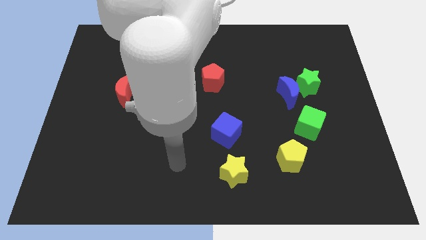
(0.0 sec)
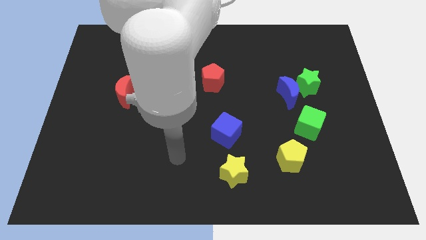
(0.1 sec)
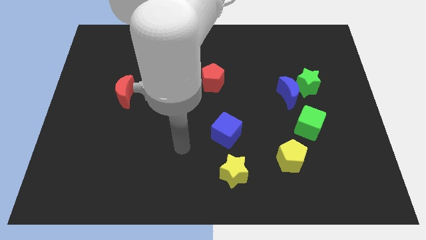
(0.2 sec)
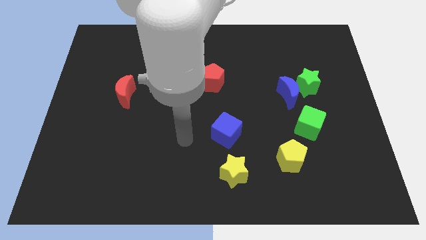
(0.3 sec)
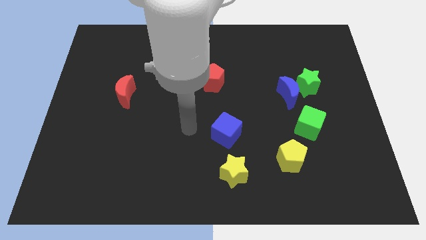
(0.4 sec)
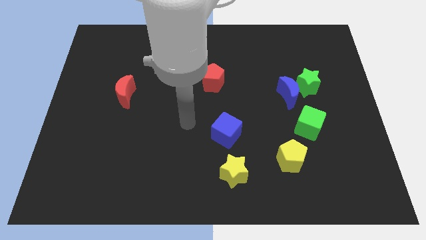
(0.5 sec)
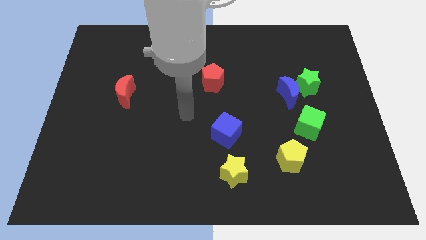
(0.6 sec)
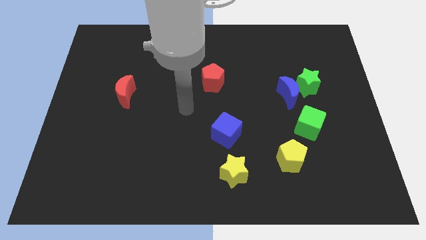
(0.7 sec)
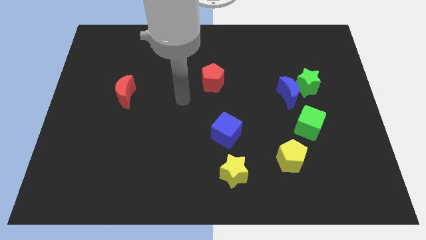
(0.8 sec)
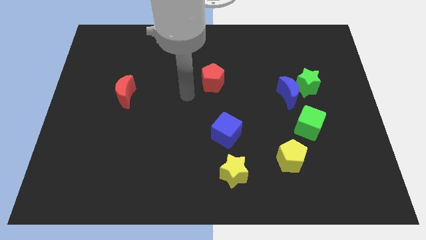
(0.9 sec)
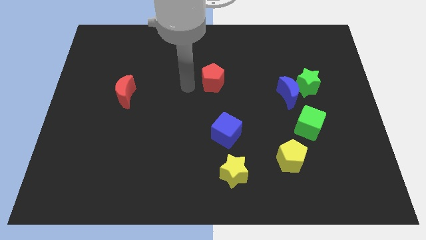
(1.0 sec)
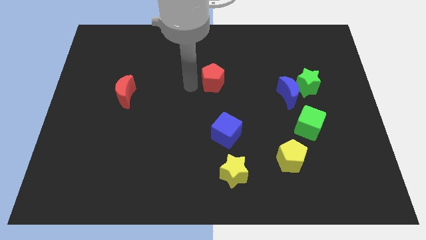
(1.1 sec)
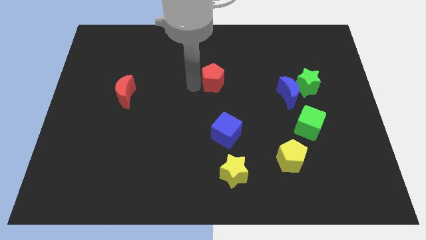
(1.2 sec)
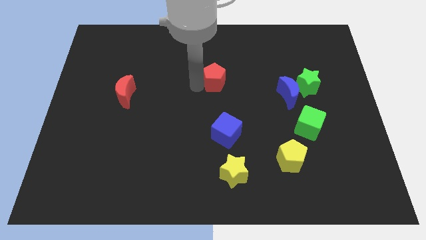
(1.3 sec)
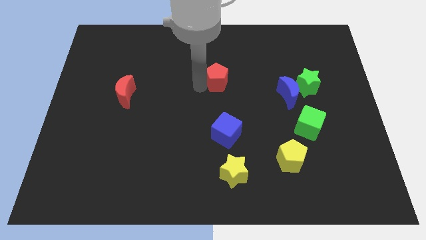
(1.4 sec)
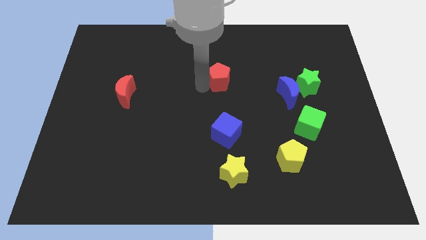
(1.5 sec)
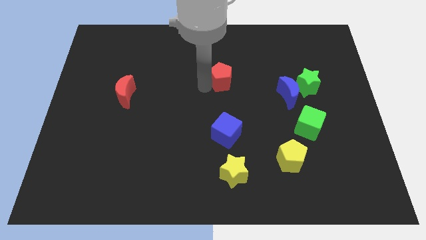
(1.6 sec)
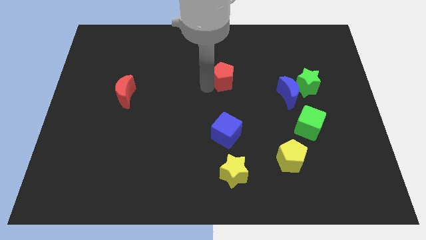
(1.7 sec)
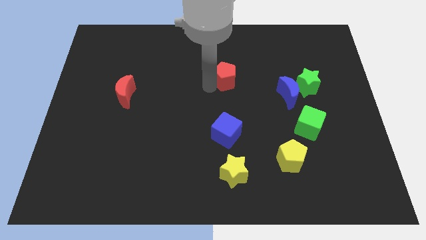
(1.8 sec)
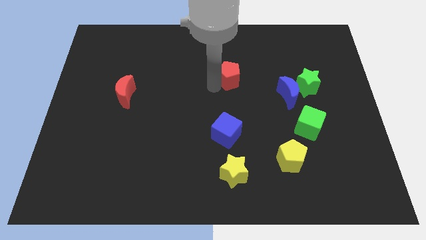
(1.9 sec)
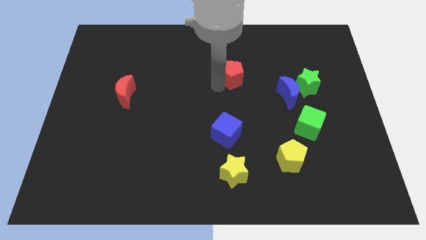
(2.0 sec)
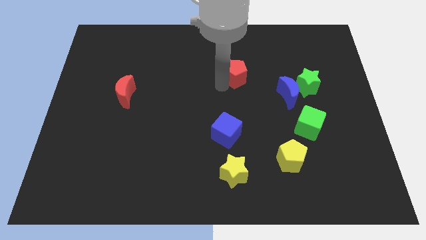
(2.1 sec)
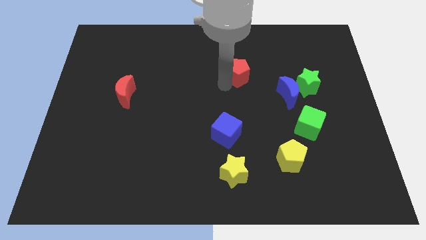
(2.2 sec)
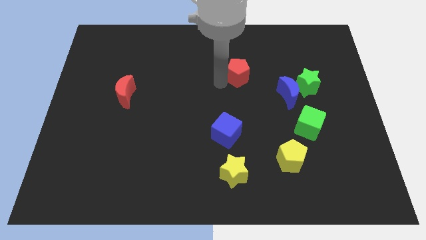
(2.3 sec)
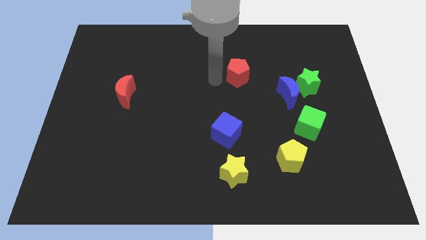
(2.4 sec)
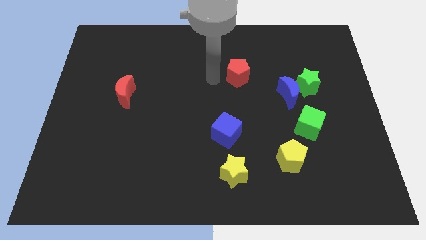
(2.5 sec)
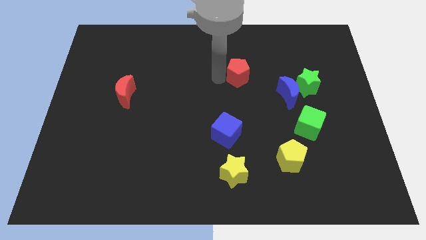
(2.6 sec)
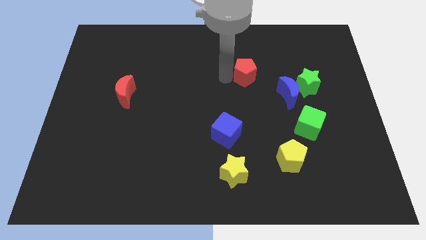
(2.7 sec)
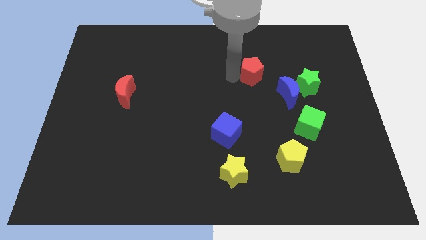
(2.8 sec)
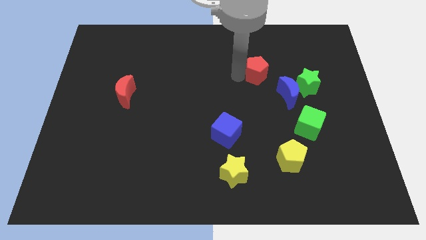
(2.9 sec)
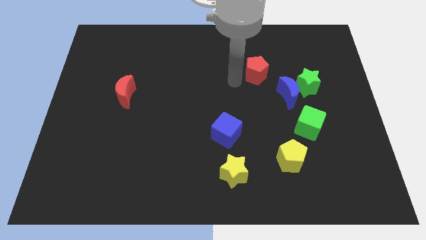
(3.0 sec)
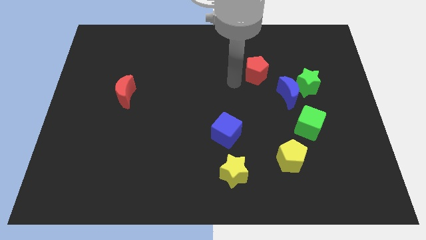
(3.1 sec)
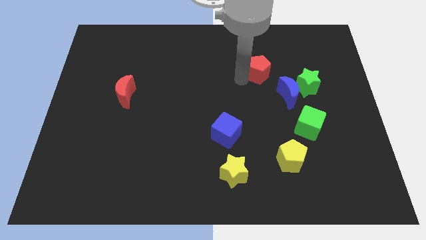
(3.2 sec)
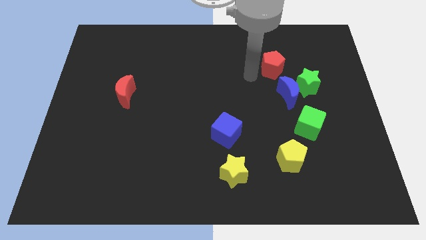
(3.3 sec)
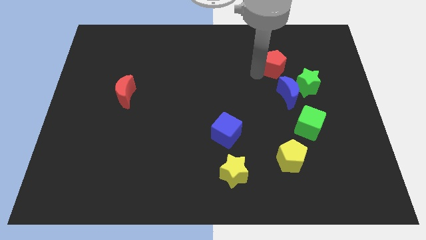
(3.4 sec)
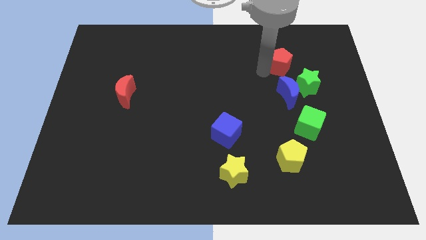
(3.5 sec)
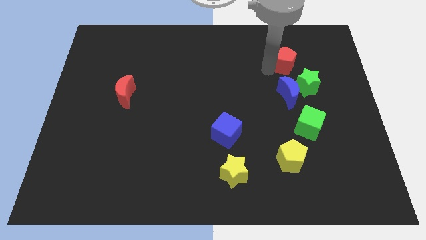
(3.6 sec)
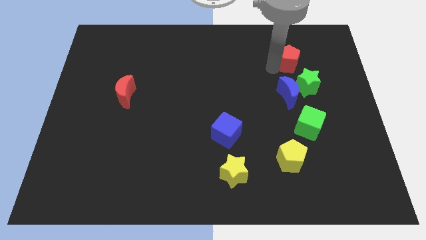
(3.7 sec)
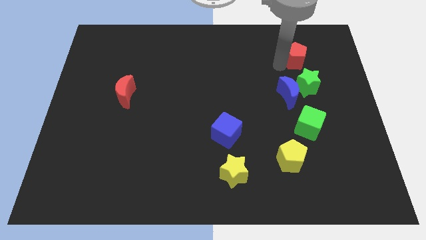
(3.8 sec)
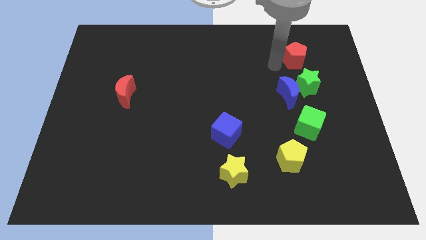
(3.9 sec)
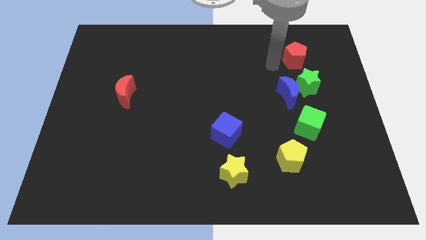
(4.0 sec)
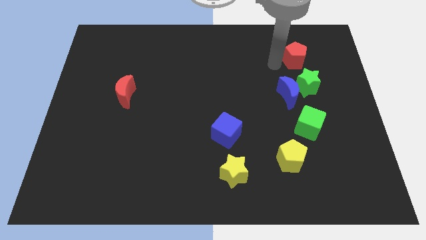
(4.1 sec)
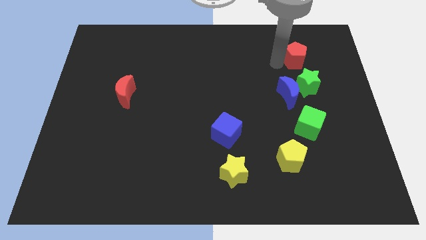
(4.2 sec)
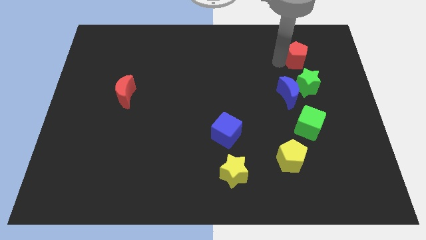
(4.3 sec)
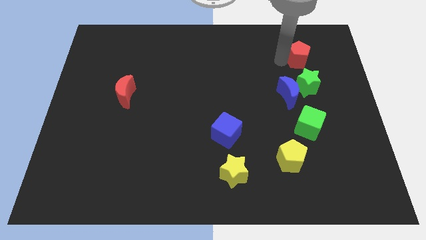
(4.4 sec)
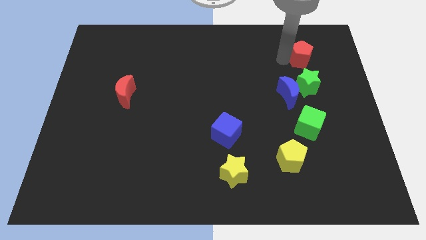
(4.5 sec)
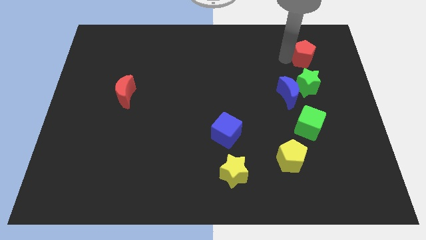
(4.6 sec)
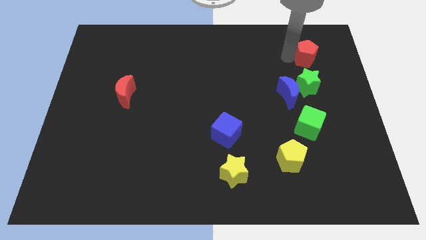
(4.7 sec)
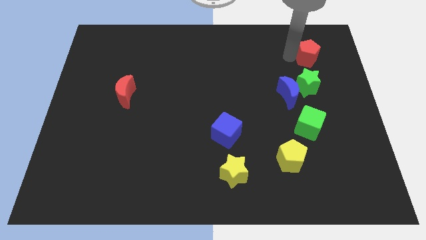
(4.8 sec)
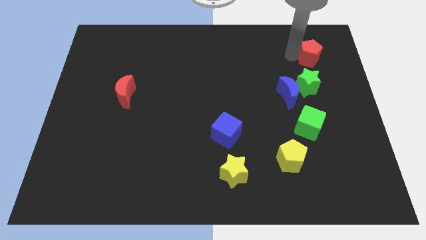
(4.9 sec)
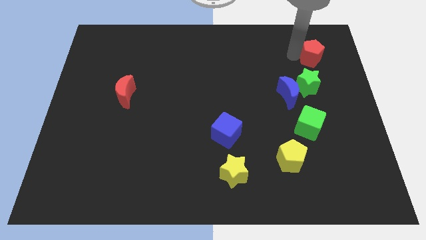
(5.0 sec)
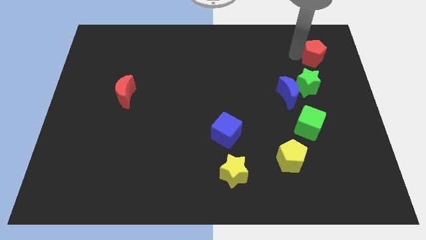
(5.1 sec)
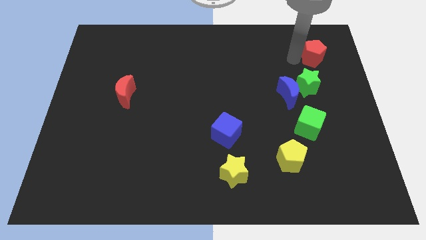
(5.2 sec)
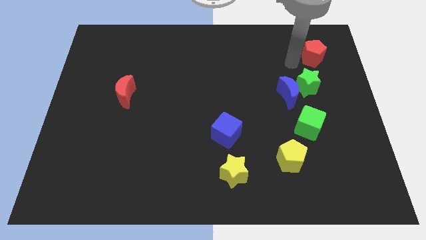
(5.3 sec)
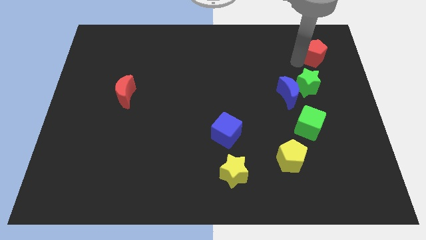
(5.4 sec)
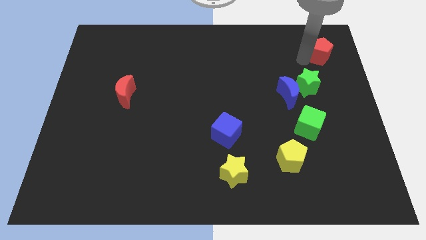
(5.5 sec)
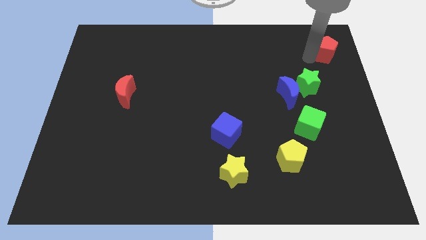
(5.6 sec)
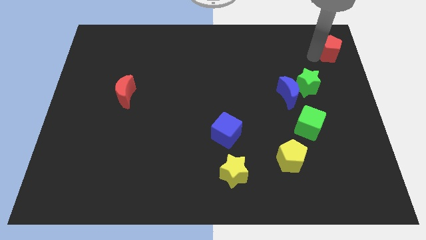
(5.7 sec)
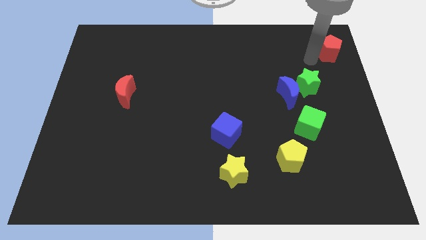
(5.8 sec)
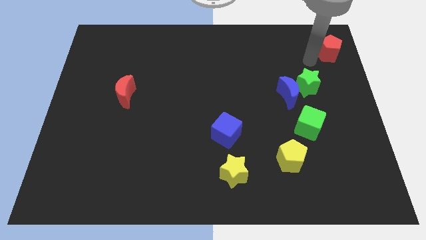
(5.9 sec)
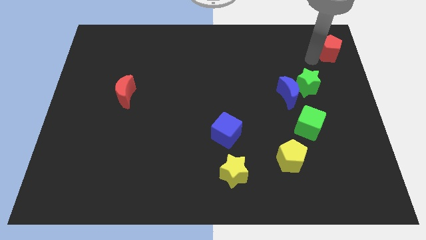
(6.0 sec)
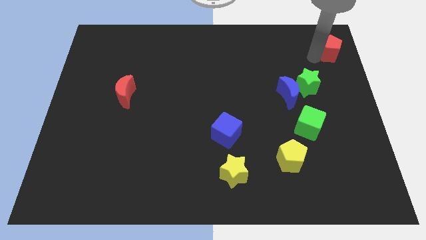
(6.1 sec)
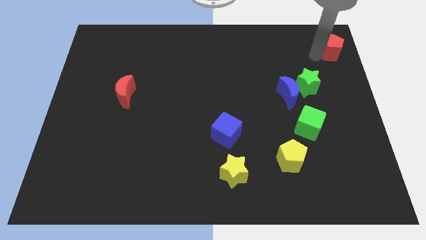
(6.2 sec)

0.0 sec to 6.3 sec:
put the red pentagon to the top right of the board
